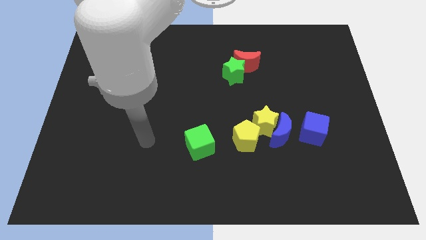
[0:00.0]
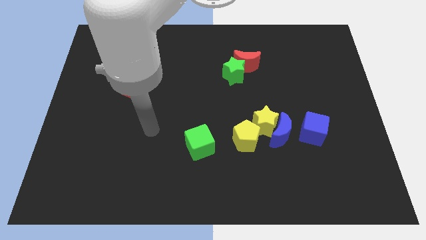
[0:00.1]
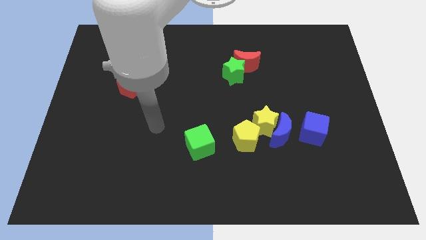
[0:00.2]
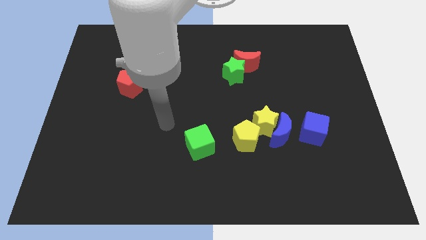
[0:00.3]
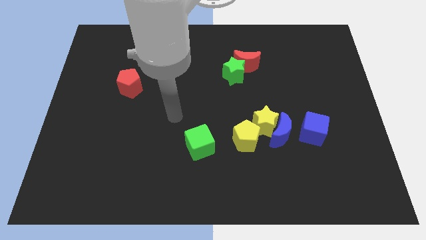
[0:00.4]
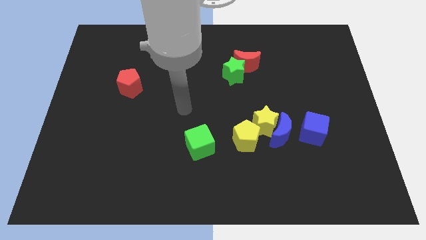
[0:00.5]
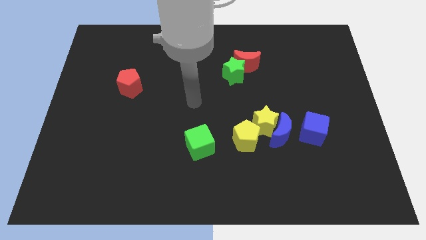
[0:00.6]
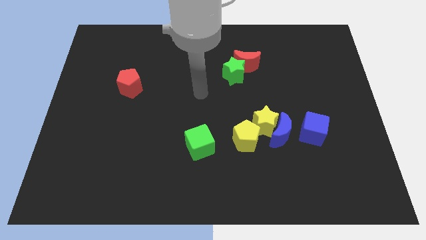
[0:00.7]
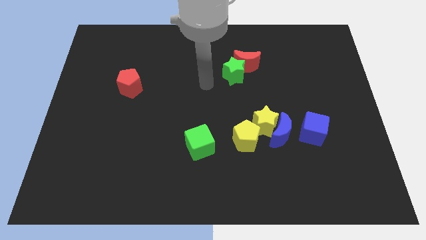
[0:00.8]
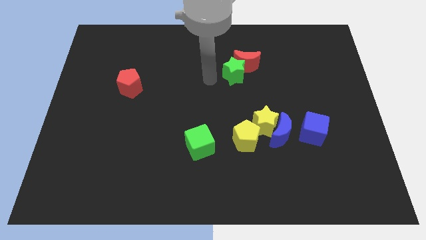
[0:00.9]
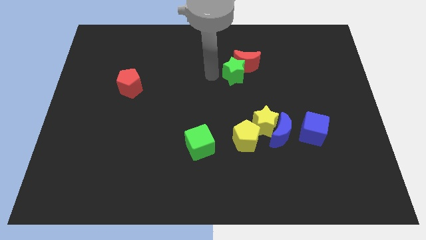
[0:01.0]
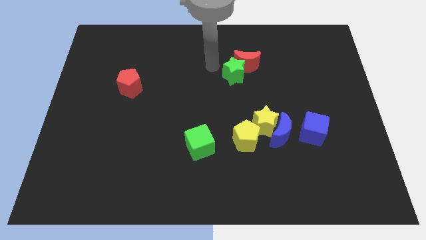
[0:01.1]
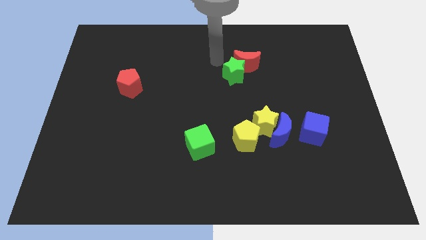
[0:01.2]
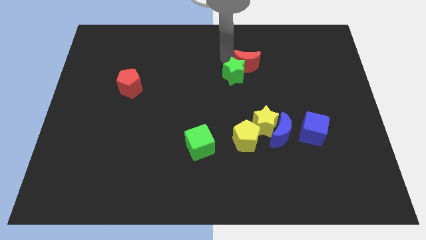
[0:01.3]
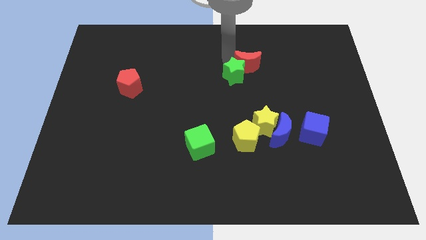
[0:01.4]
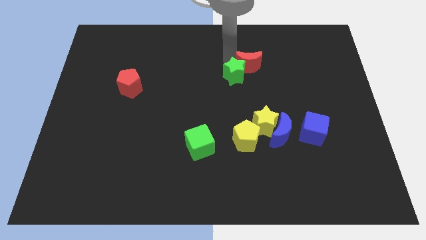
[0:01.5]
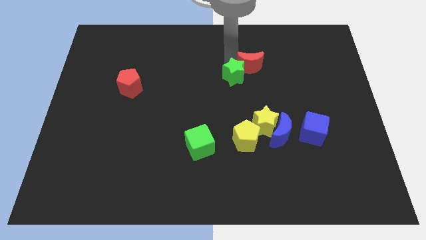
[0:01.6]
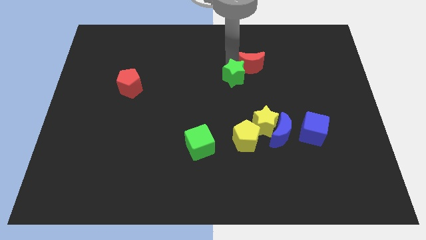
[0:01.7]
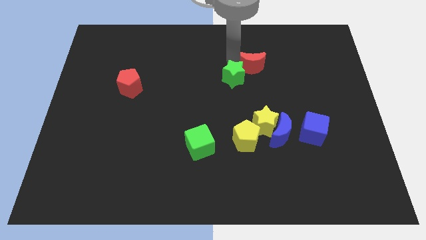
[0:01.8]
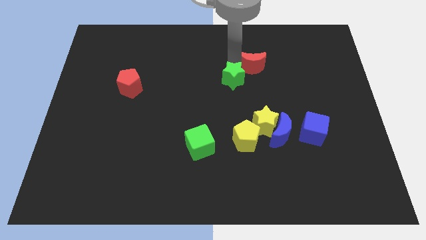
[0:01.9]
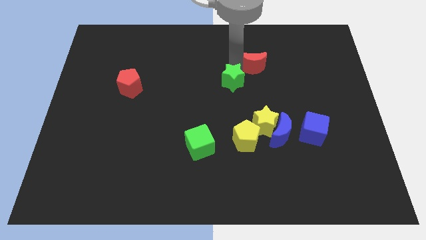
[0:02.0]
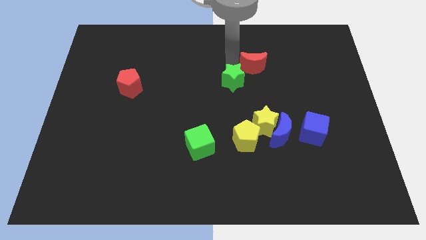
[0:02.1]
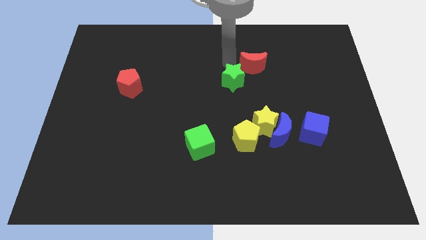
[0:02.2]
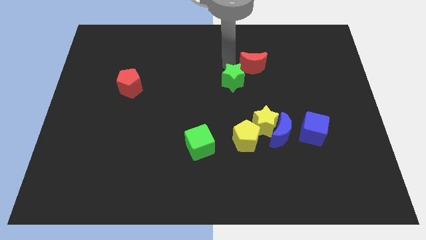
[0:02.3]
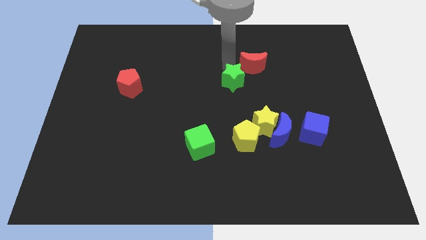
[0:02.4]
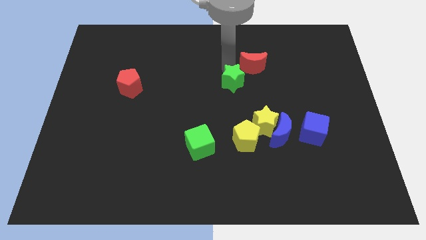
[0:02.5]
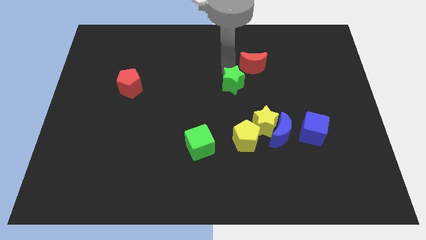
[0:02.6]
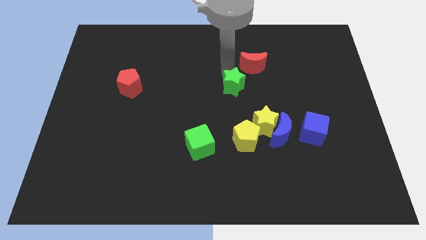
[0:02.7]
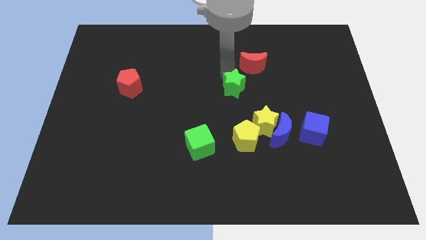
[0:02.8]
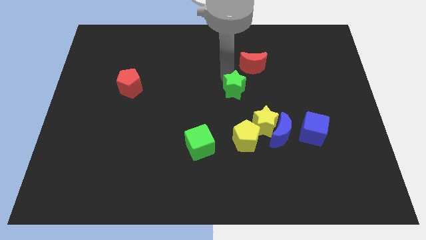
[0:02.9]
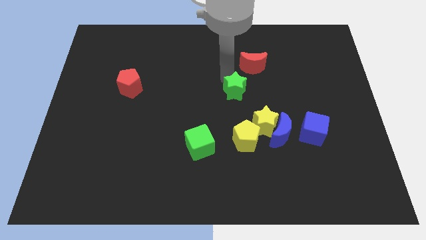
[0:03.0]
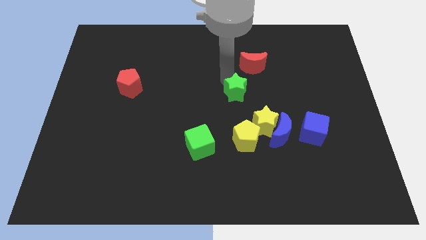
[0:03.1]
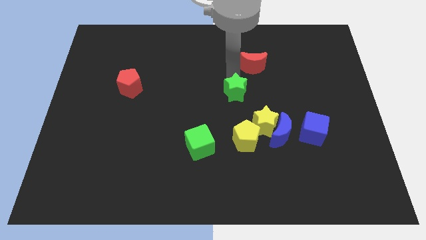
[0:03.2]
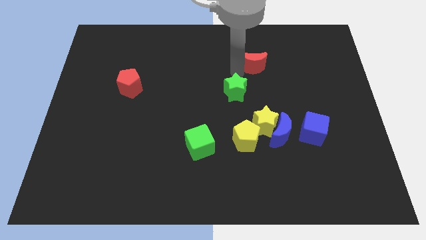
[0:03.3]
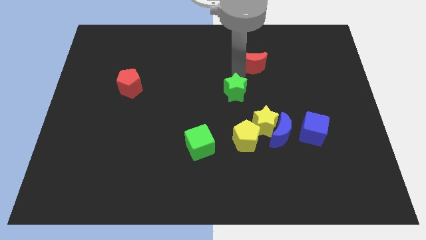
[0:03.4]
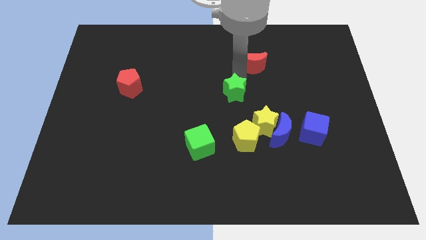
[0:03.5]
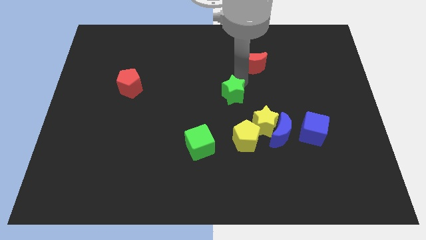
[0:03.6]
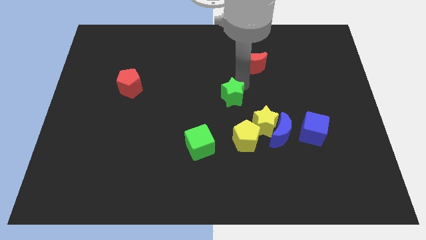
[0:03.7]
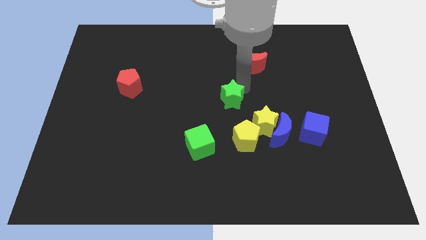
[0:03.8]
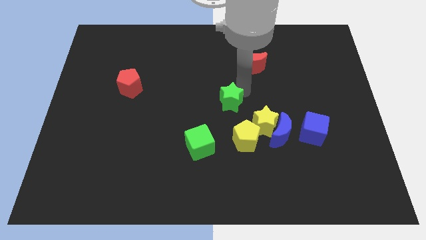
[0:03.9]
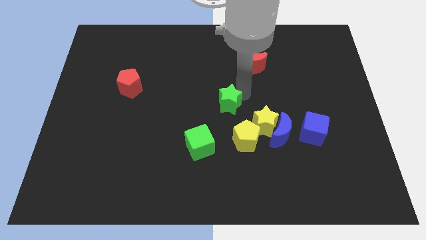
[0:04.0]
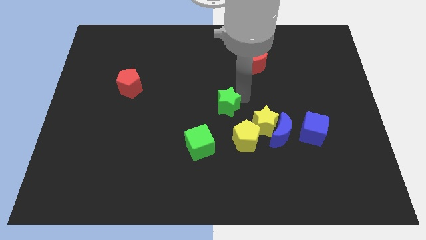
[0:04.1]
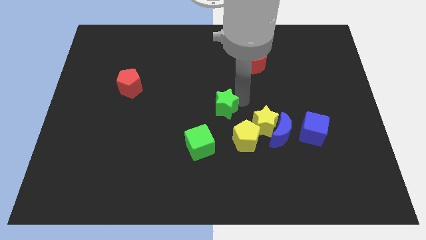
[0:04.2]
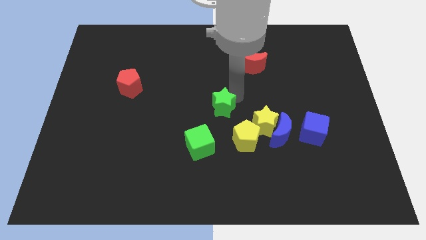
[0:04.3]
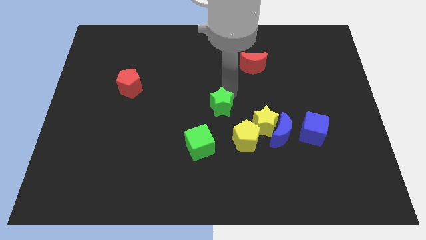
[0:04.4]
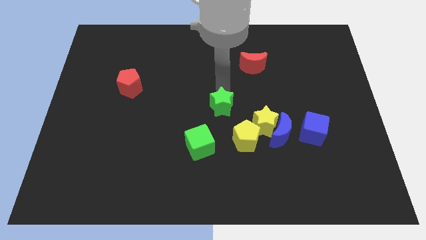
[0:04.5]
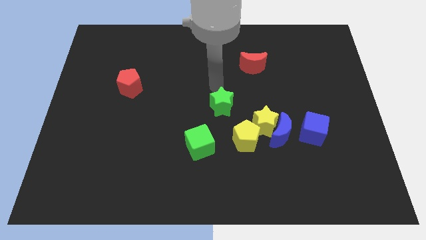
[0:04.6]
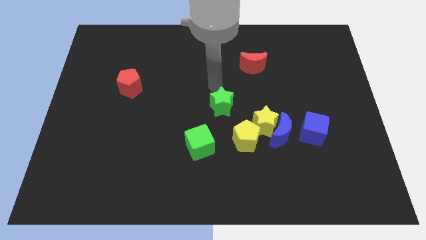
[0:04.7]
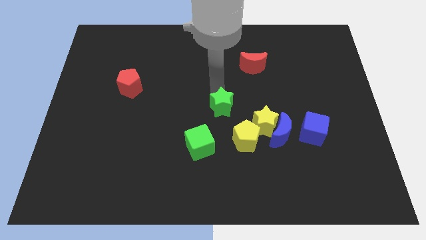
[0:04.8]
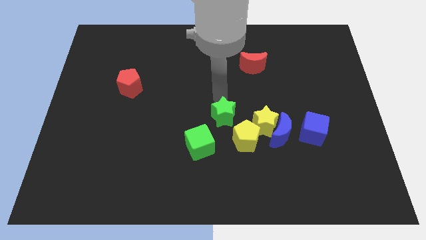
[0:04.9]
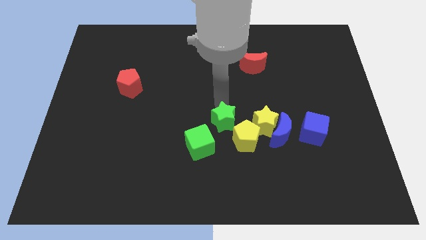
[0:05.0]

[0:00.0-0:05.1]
slide the green star left of the blue moon

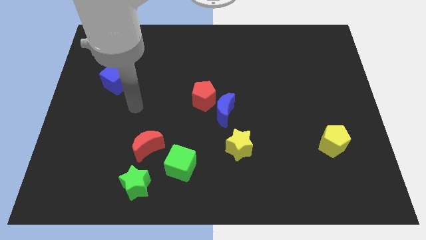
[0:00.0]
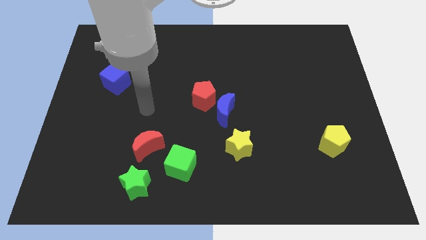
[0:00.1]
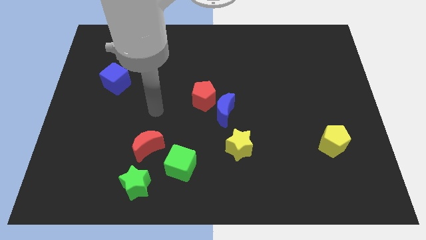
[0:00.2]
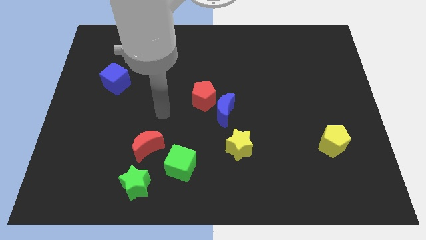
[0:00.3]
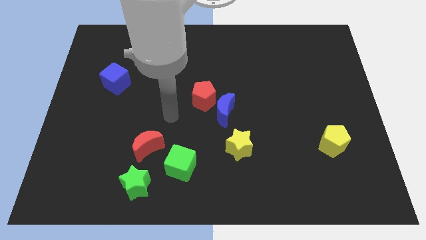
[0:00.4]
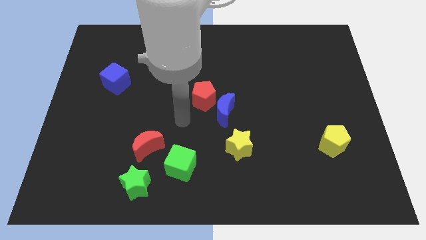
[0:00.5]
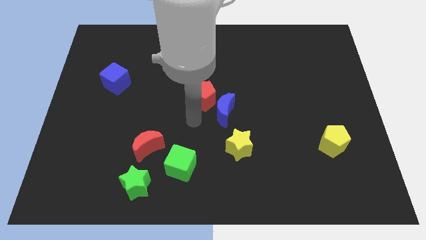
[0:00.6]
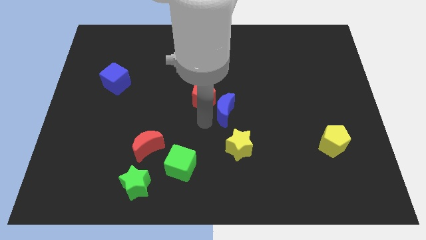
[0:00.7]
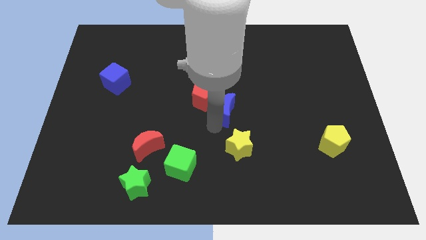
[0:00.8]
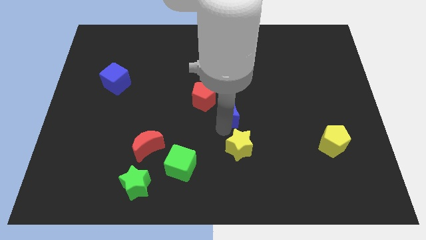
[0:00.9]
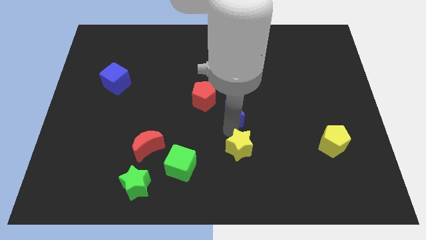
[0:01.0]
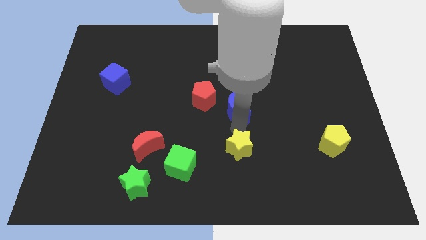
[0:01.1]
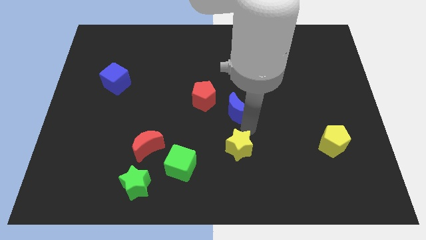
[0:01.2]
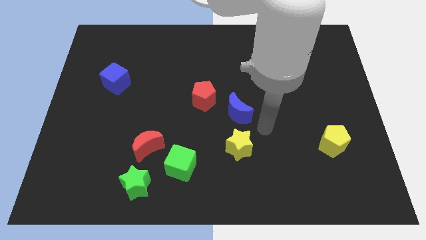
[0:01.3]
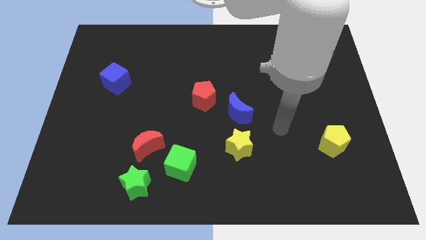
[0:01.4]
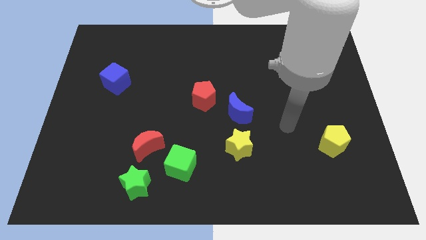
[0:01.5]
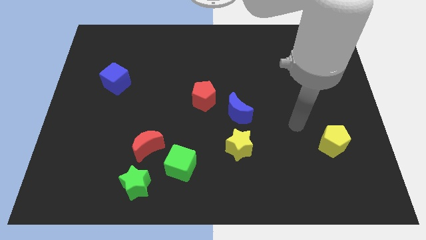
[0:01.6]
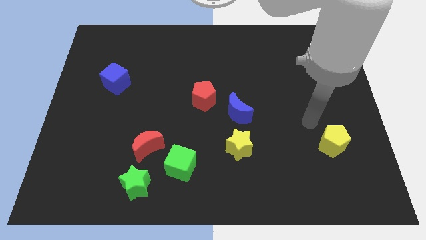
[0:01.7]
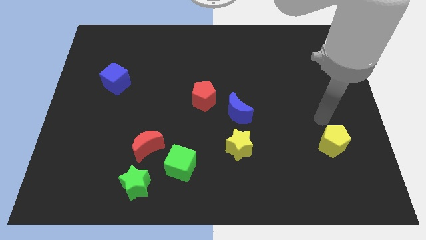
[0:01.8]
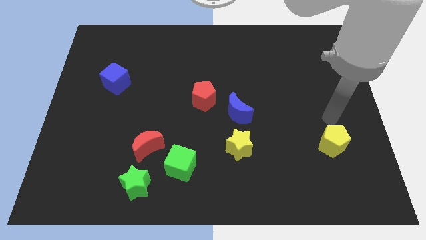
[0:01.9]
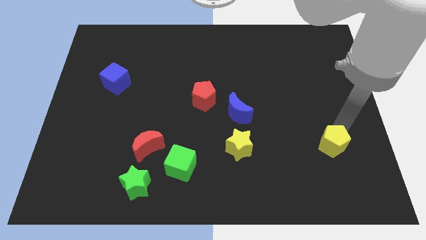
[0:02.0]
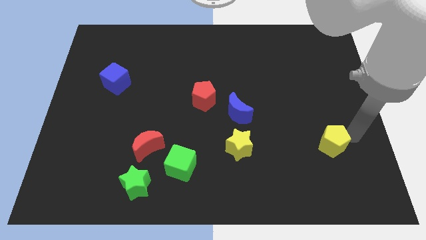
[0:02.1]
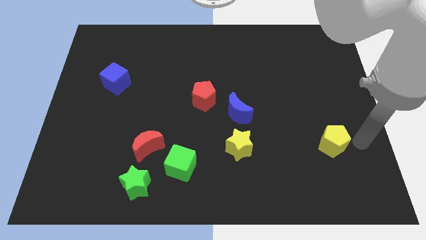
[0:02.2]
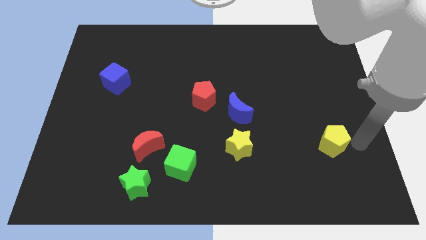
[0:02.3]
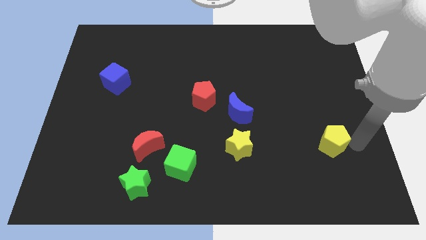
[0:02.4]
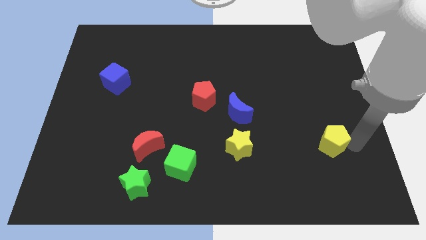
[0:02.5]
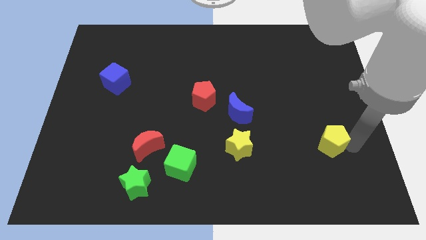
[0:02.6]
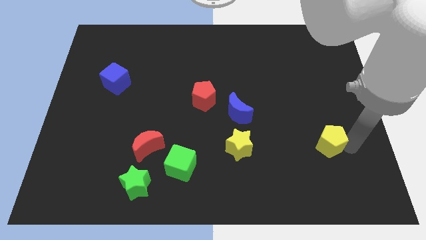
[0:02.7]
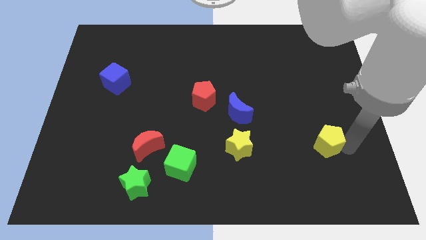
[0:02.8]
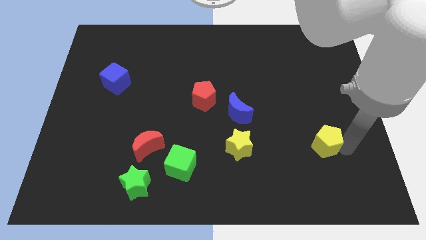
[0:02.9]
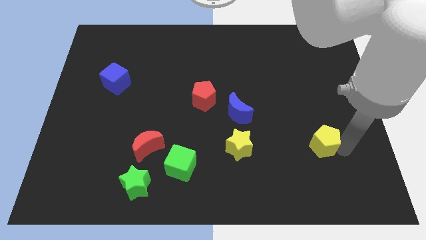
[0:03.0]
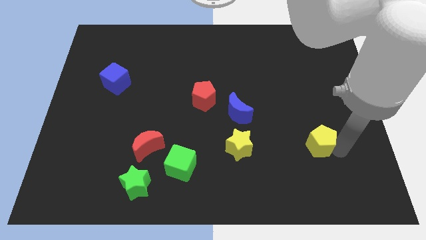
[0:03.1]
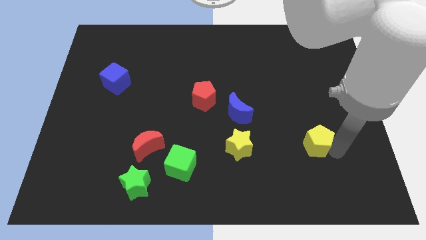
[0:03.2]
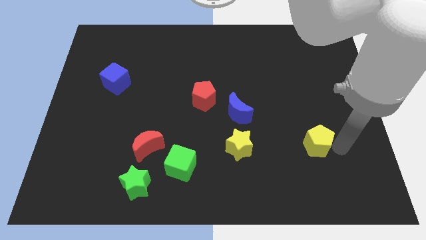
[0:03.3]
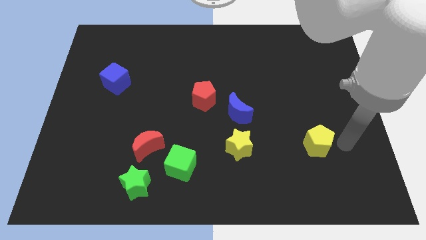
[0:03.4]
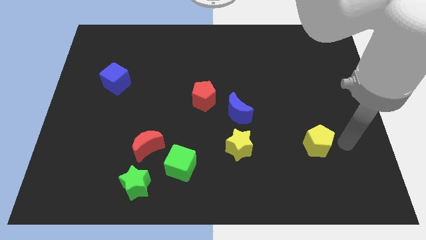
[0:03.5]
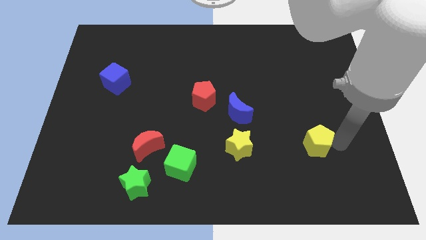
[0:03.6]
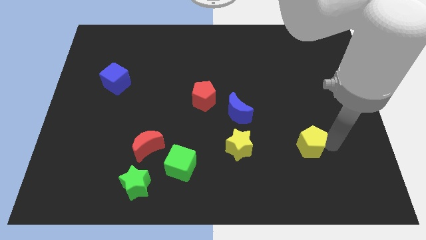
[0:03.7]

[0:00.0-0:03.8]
push the yellow pentagon to the right of the yellow star
